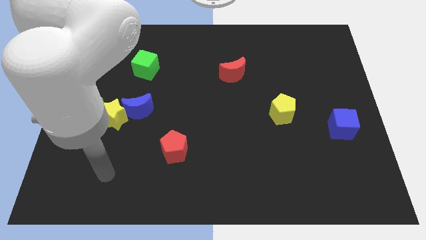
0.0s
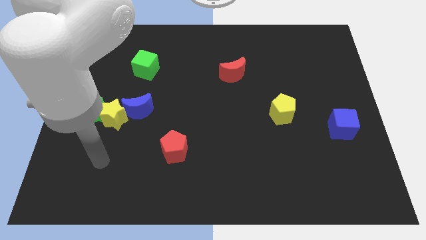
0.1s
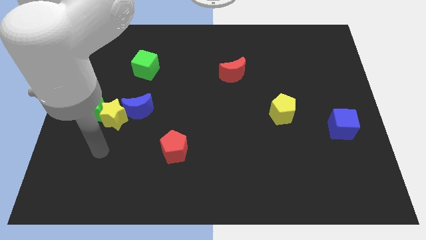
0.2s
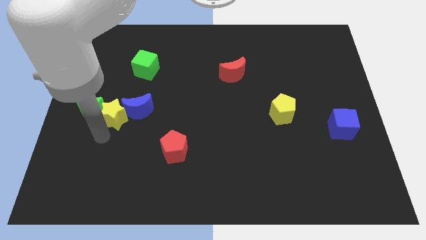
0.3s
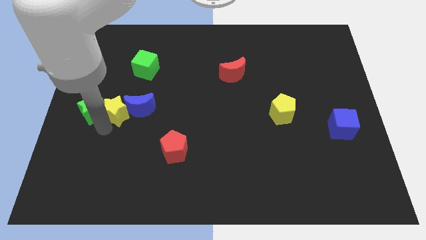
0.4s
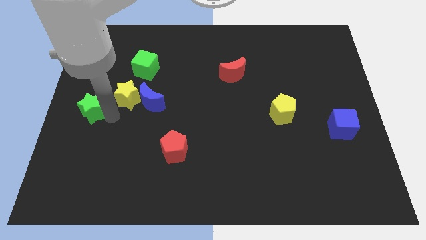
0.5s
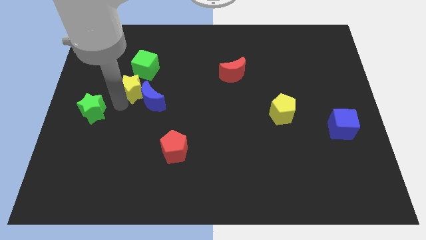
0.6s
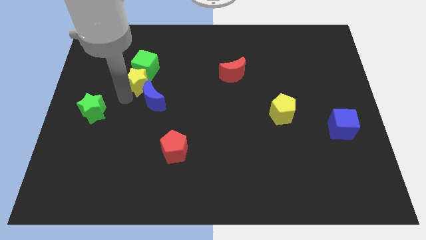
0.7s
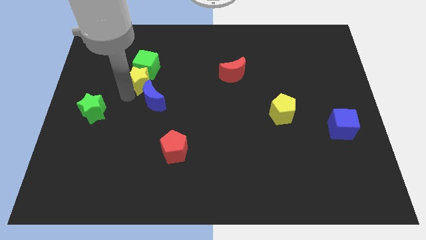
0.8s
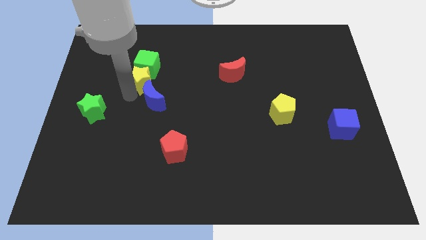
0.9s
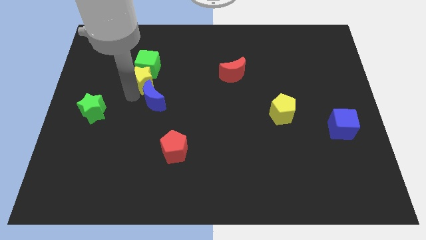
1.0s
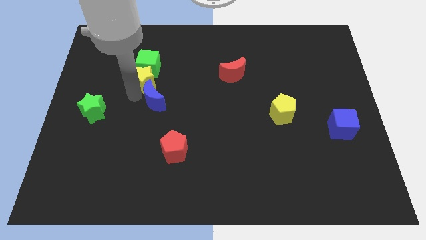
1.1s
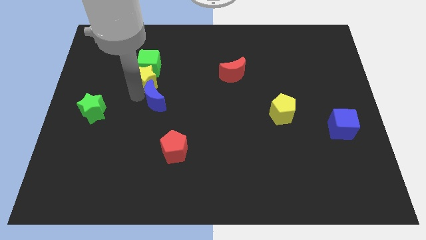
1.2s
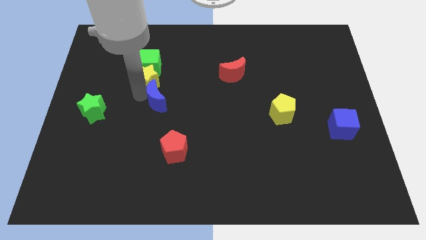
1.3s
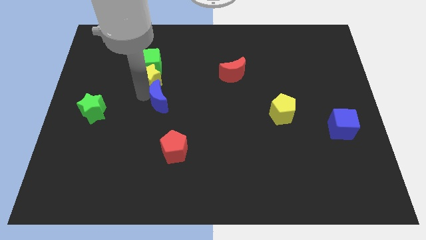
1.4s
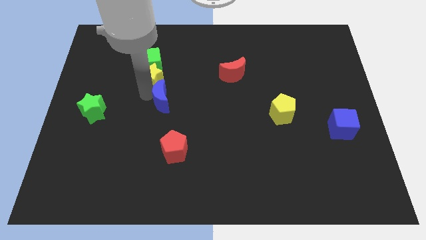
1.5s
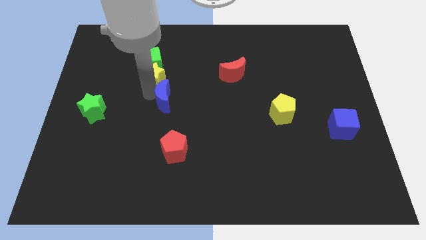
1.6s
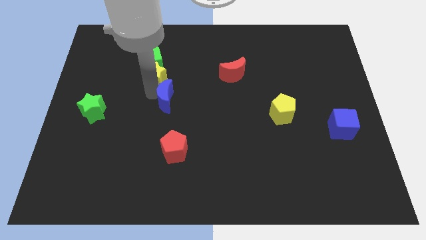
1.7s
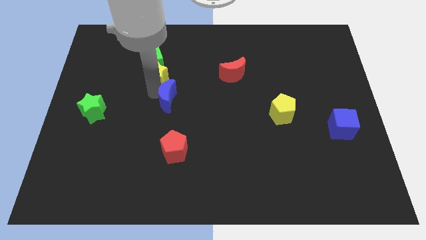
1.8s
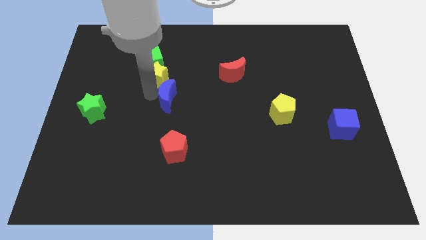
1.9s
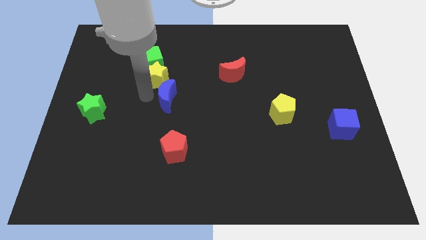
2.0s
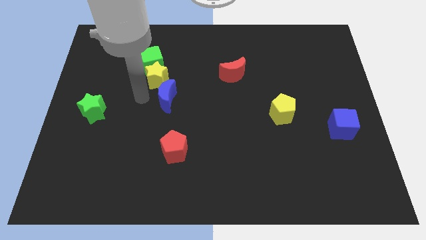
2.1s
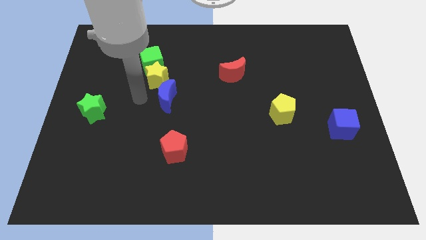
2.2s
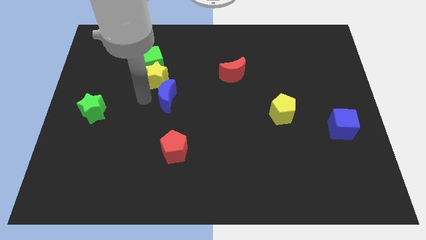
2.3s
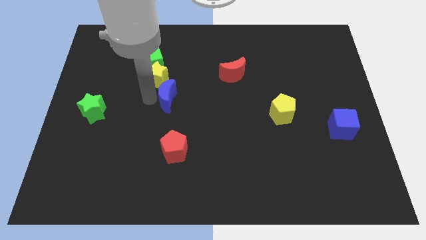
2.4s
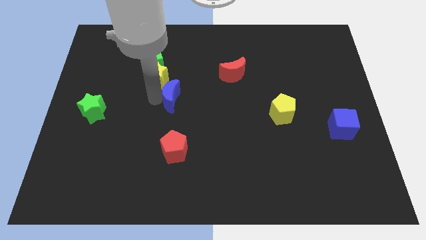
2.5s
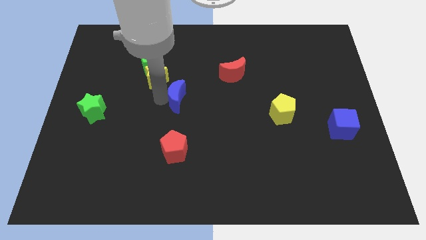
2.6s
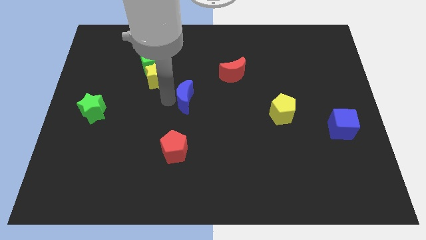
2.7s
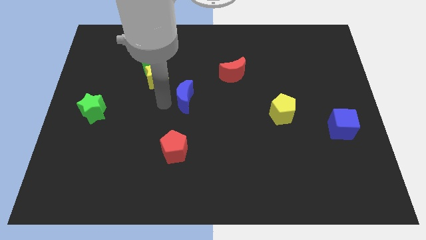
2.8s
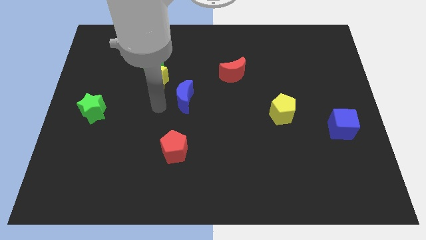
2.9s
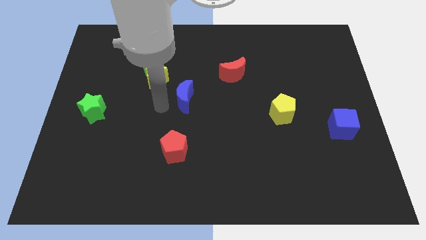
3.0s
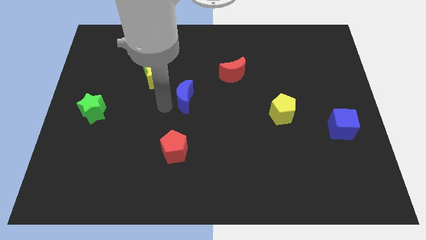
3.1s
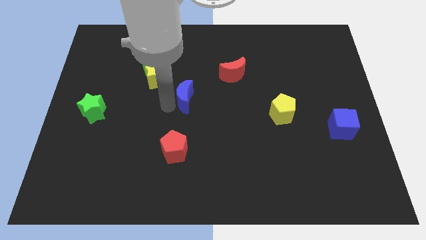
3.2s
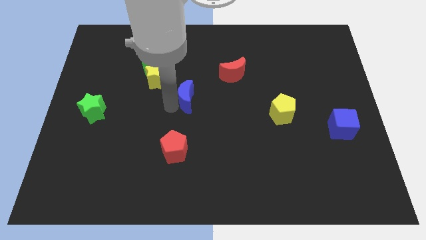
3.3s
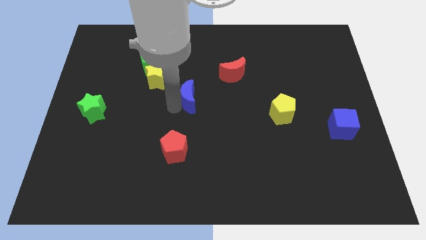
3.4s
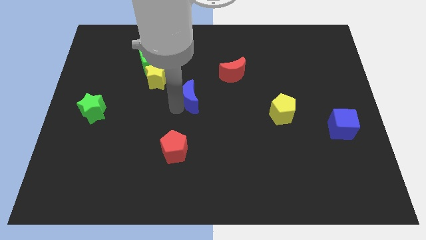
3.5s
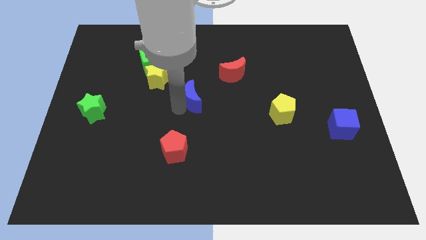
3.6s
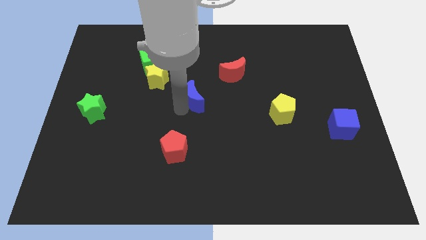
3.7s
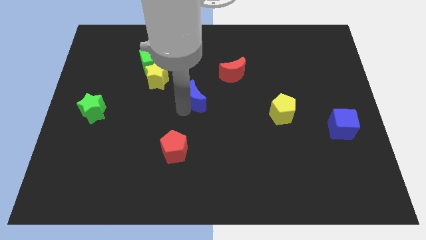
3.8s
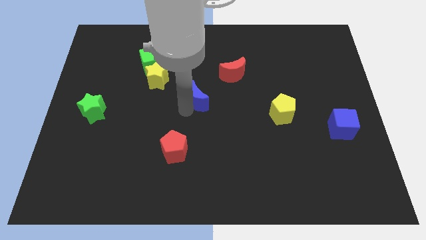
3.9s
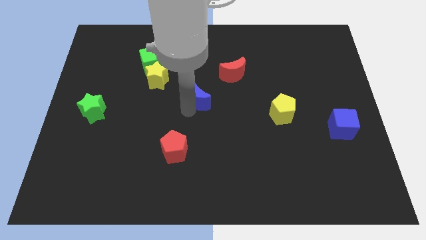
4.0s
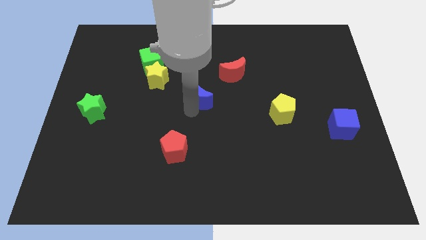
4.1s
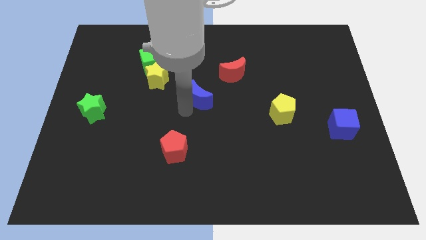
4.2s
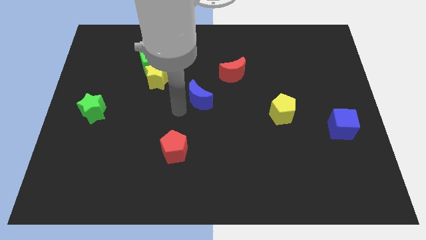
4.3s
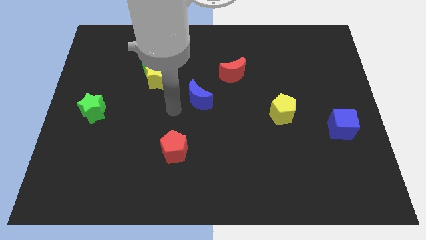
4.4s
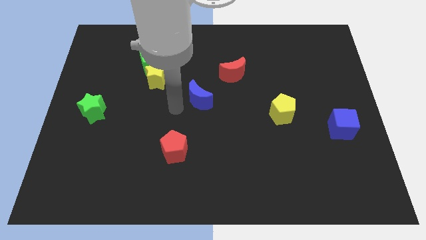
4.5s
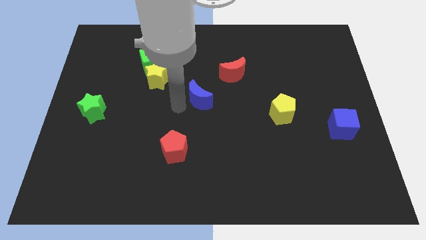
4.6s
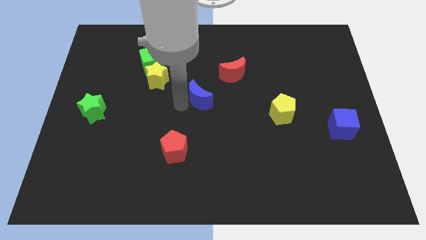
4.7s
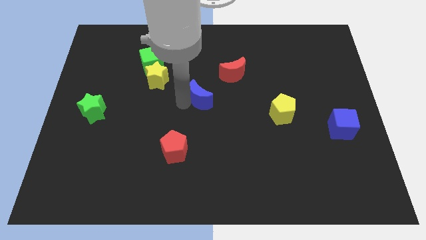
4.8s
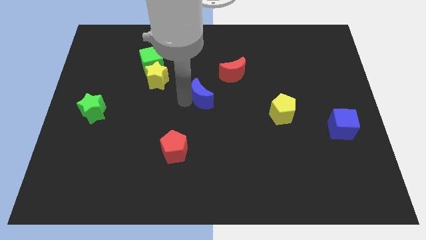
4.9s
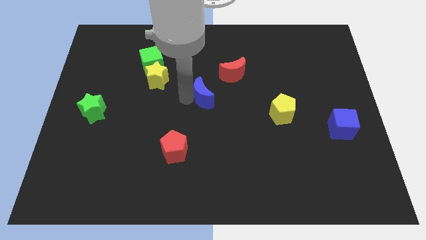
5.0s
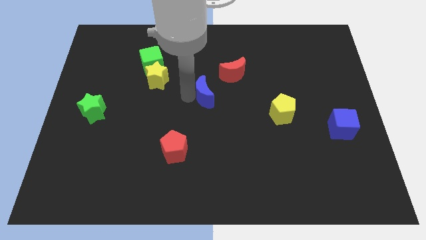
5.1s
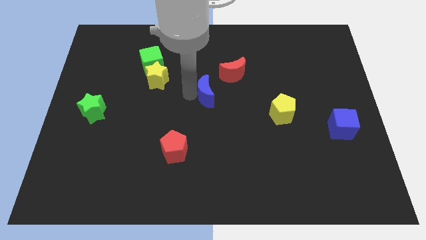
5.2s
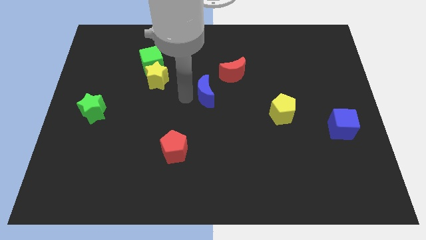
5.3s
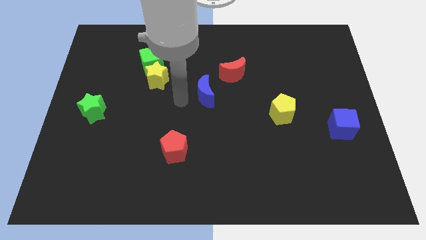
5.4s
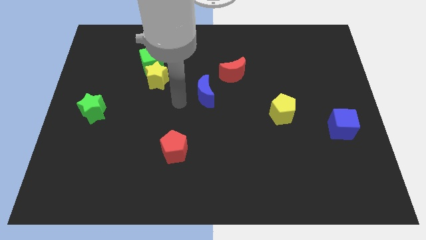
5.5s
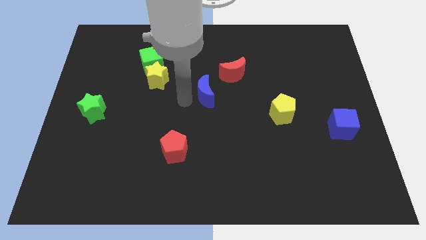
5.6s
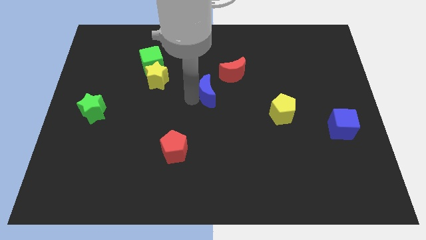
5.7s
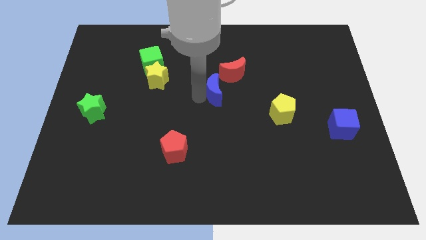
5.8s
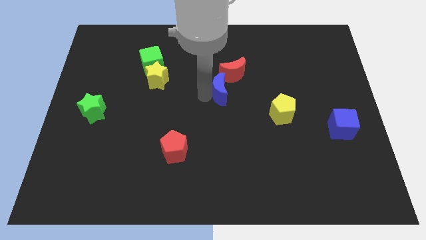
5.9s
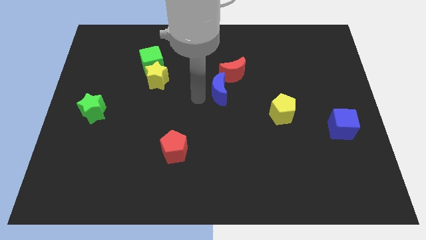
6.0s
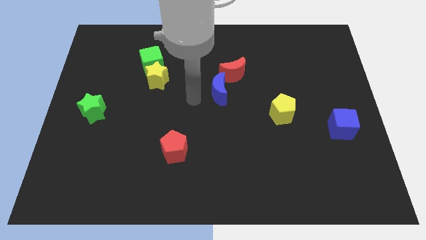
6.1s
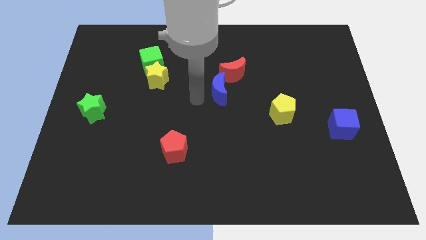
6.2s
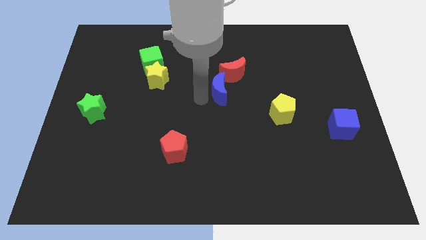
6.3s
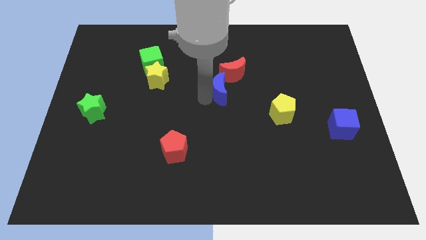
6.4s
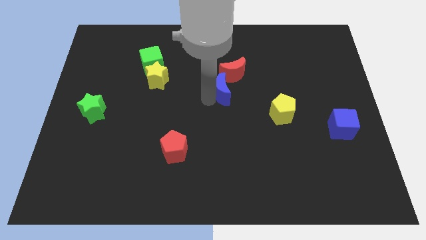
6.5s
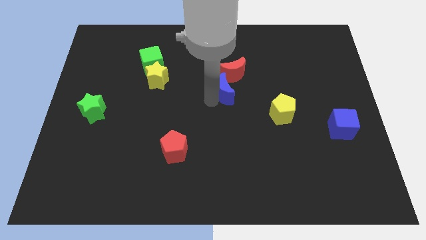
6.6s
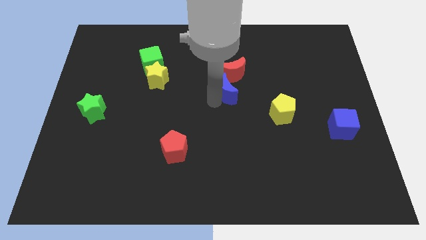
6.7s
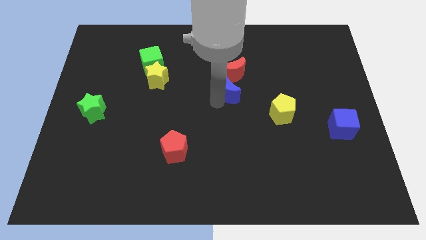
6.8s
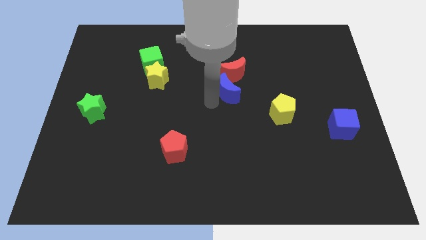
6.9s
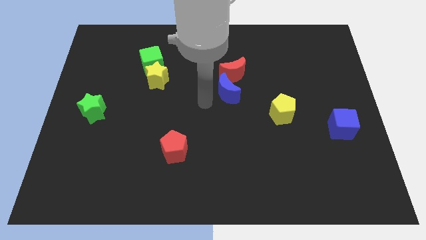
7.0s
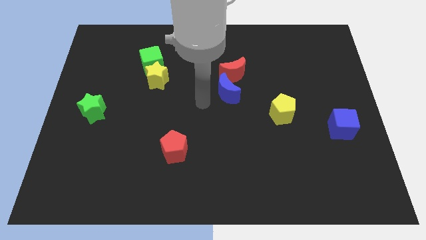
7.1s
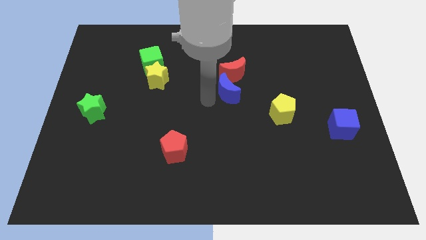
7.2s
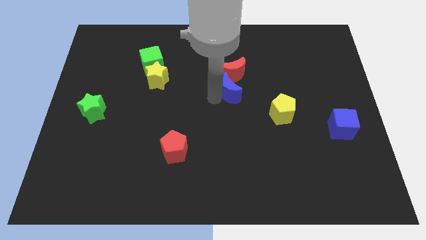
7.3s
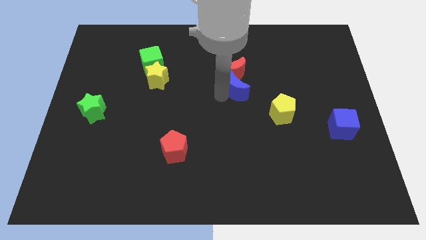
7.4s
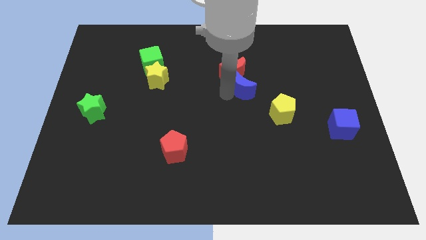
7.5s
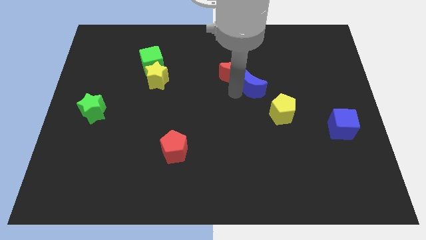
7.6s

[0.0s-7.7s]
put the blue moon to the right of the red moon

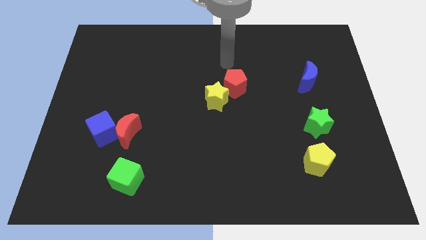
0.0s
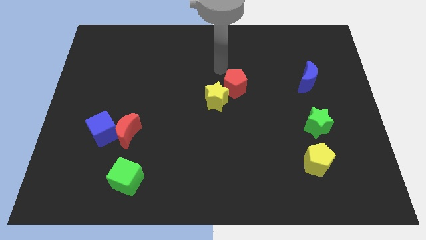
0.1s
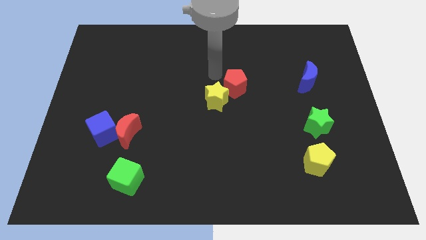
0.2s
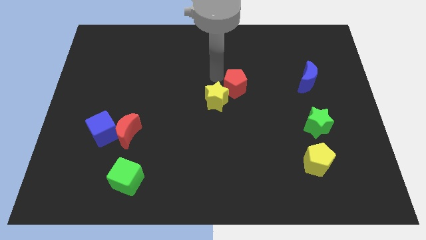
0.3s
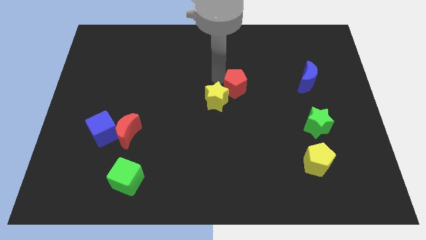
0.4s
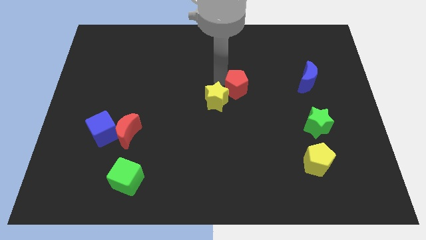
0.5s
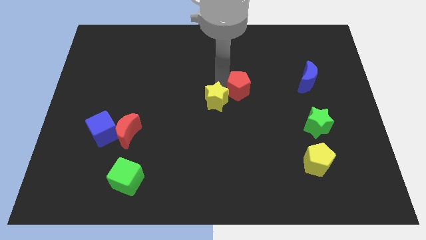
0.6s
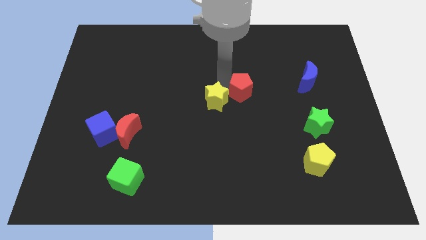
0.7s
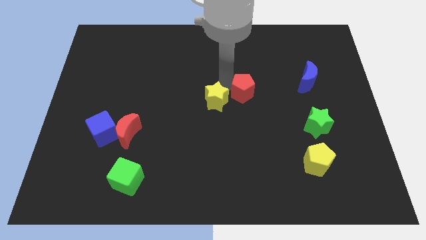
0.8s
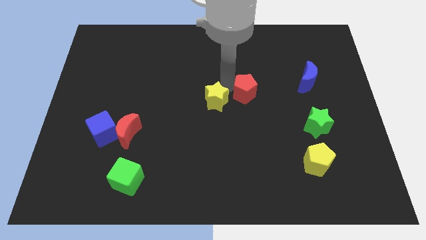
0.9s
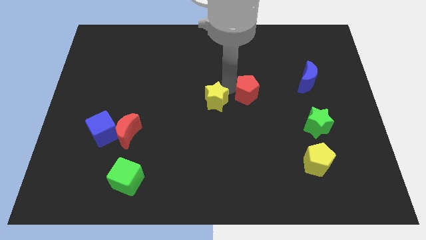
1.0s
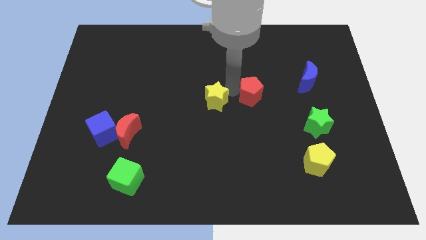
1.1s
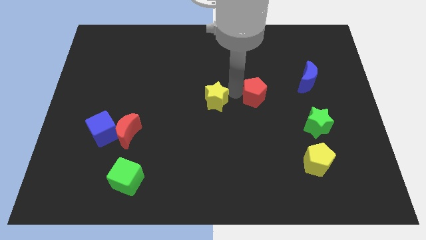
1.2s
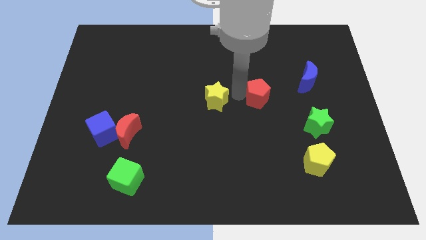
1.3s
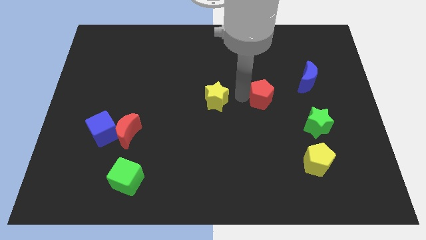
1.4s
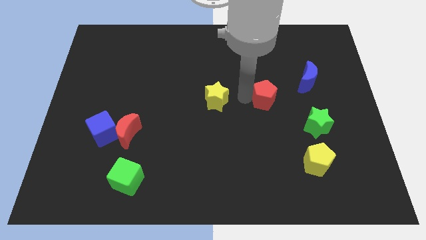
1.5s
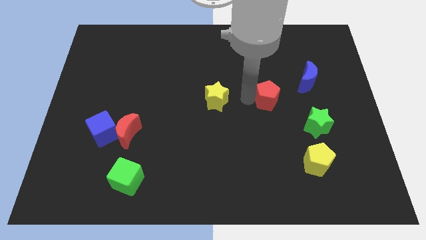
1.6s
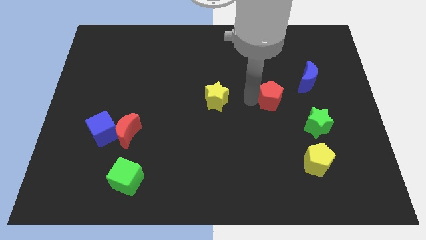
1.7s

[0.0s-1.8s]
move the red pentagon to the top left side of the green star
